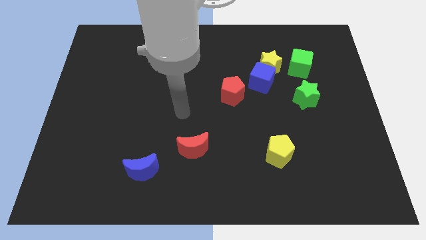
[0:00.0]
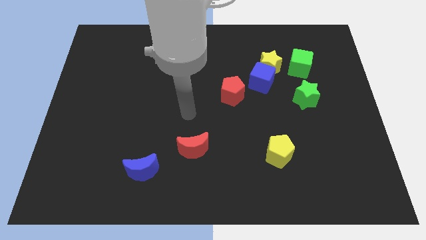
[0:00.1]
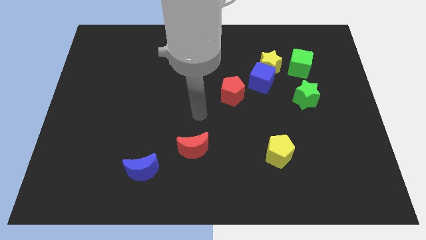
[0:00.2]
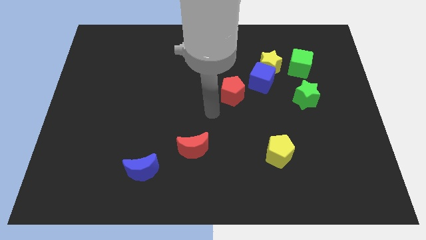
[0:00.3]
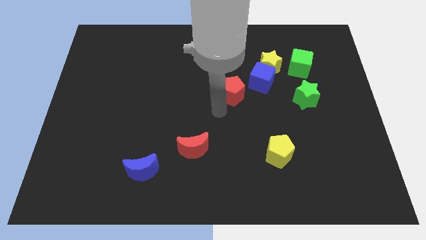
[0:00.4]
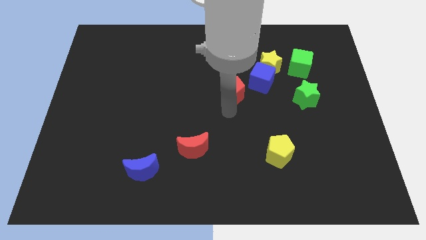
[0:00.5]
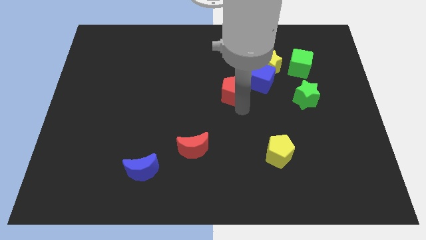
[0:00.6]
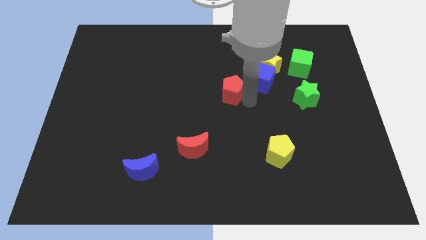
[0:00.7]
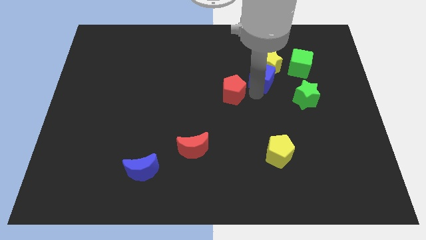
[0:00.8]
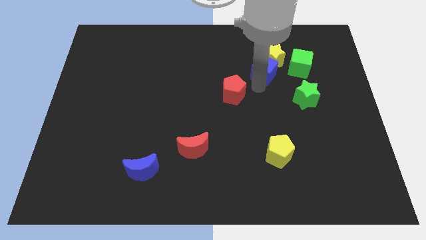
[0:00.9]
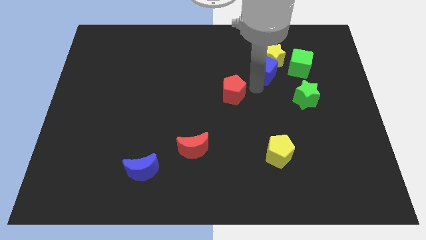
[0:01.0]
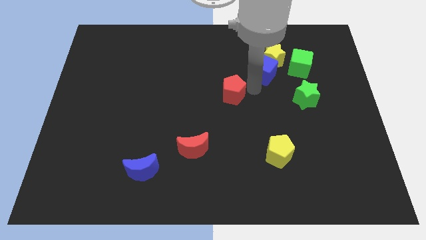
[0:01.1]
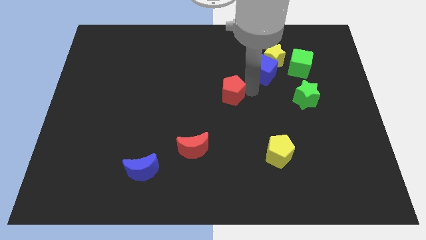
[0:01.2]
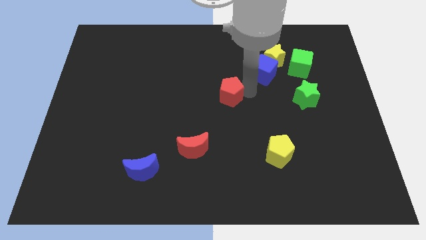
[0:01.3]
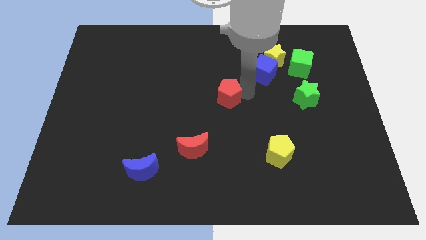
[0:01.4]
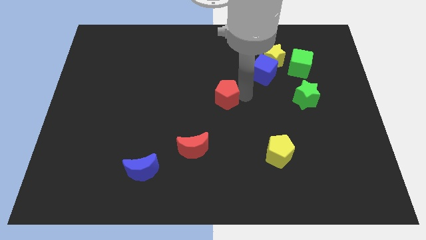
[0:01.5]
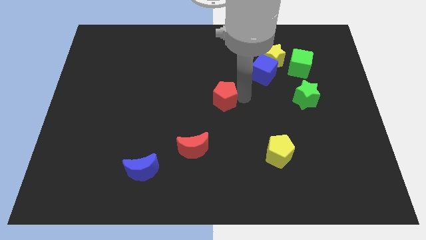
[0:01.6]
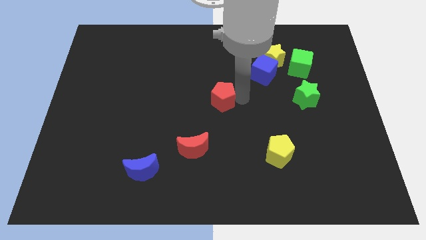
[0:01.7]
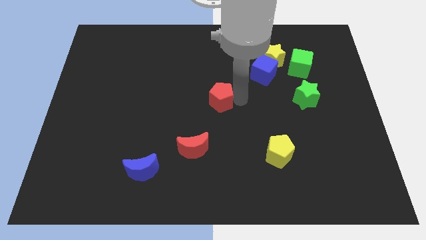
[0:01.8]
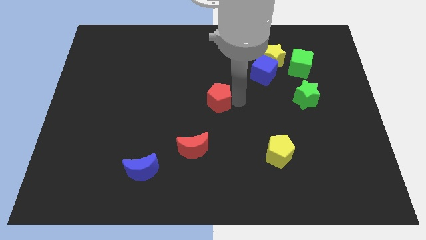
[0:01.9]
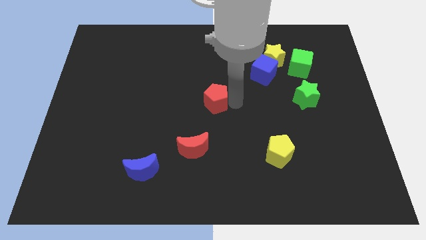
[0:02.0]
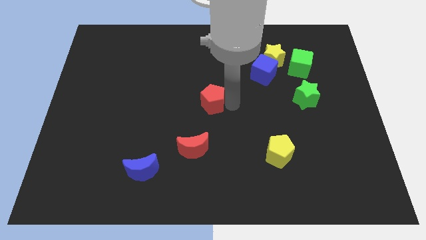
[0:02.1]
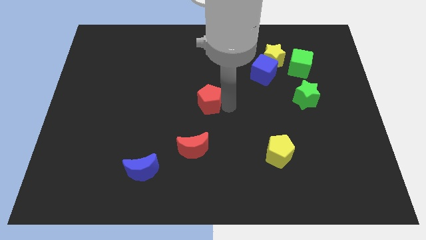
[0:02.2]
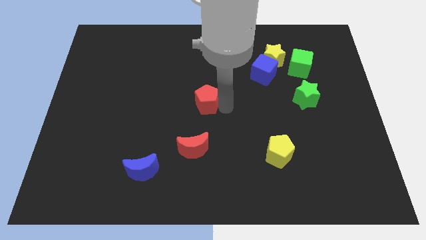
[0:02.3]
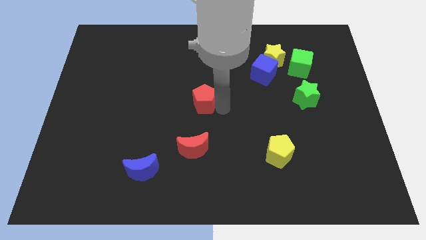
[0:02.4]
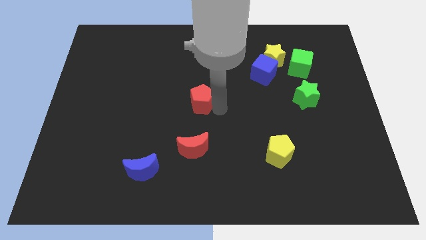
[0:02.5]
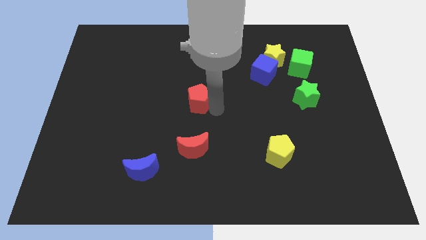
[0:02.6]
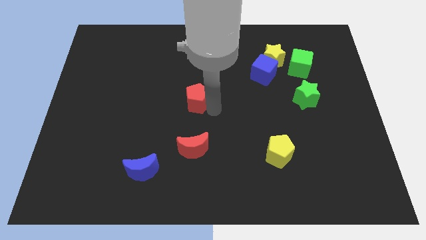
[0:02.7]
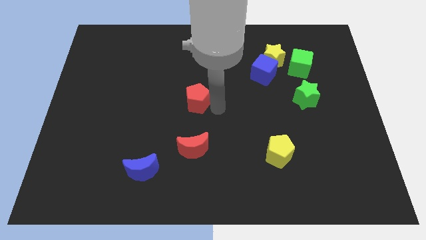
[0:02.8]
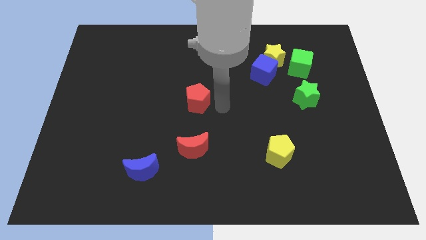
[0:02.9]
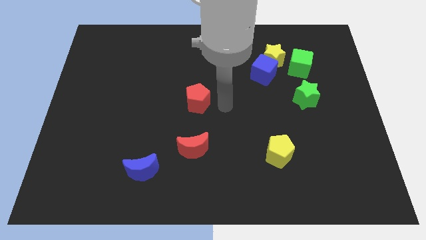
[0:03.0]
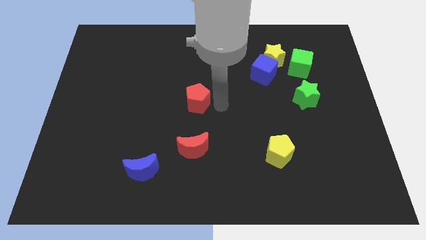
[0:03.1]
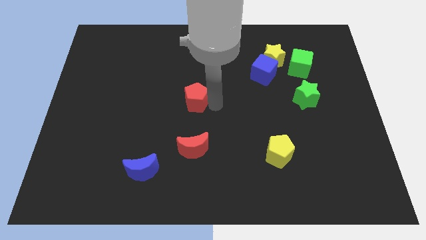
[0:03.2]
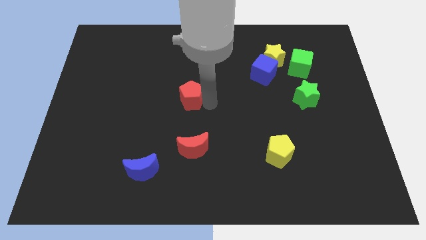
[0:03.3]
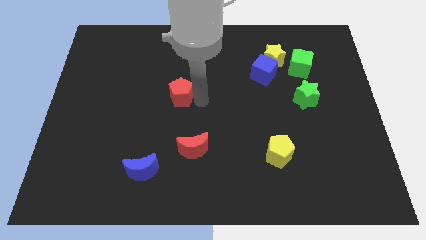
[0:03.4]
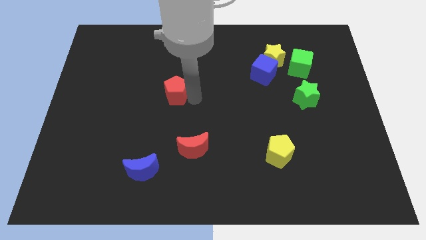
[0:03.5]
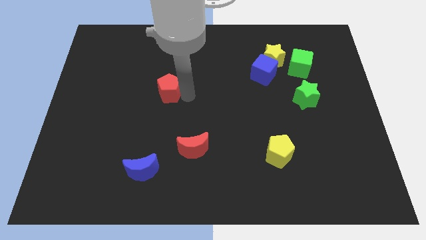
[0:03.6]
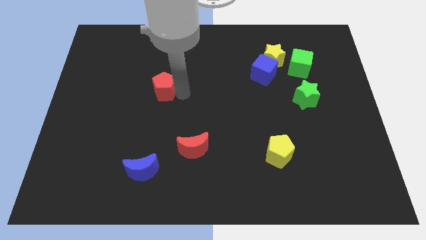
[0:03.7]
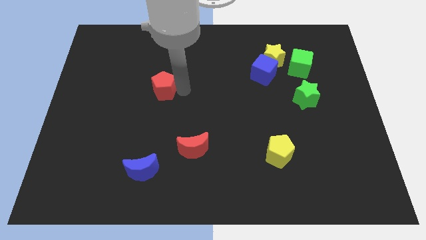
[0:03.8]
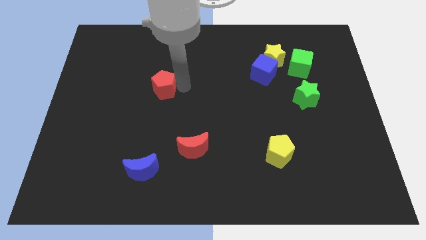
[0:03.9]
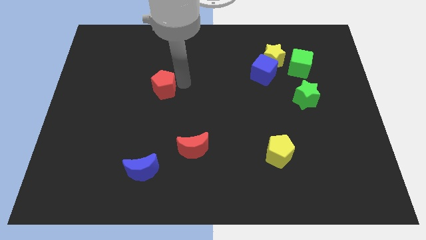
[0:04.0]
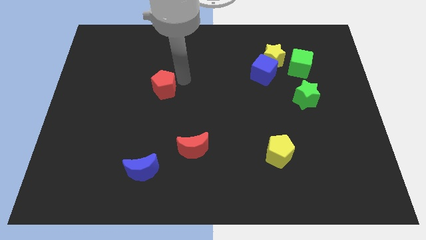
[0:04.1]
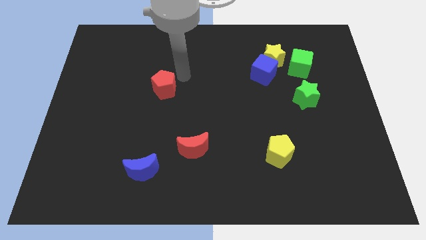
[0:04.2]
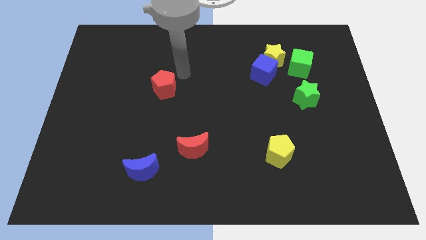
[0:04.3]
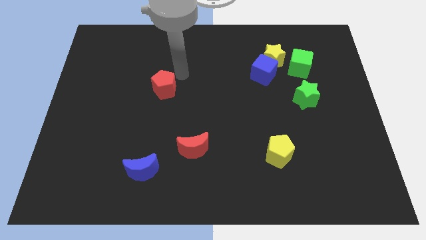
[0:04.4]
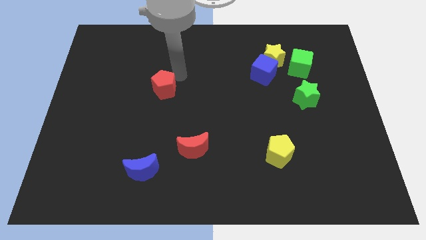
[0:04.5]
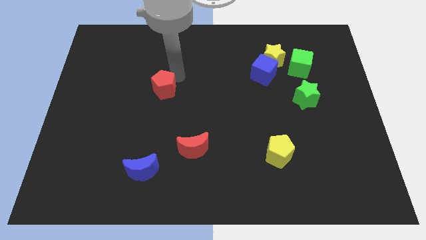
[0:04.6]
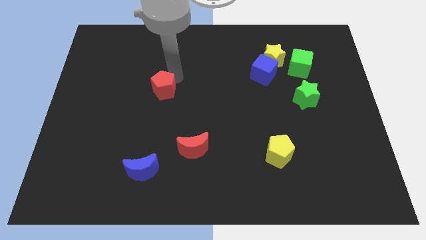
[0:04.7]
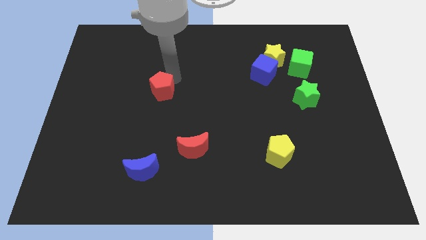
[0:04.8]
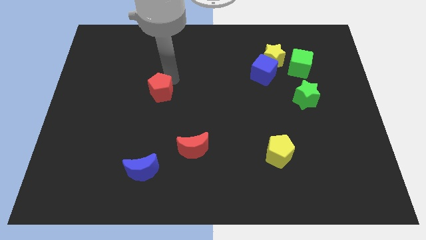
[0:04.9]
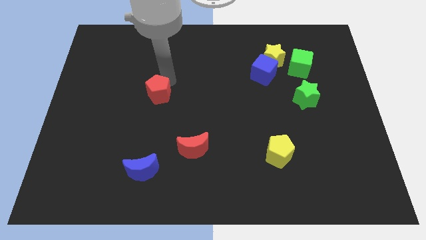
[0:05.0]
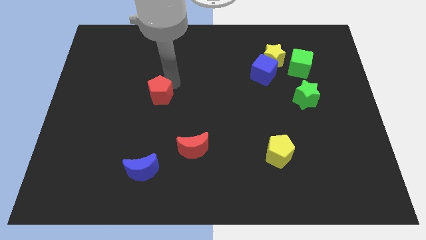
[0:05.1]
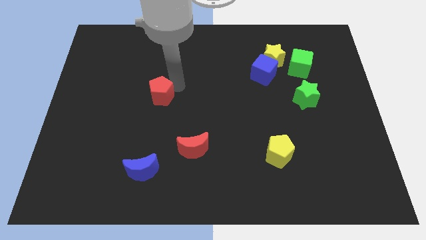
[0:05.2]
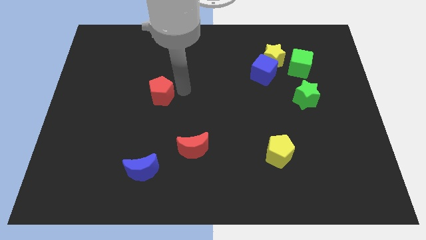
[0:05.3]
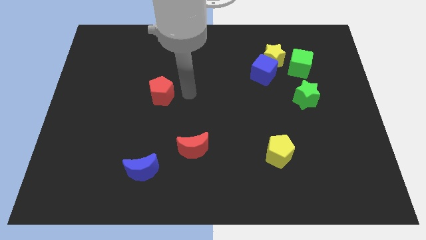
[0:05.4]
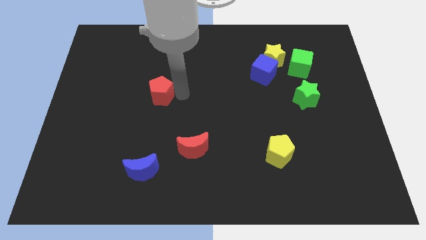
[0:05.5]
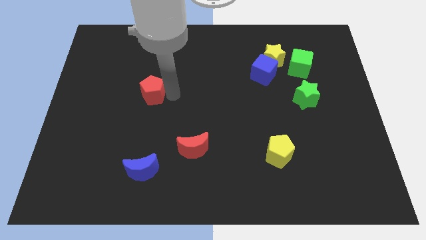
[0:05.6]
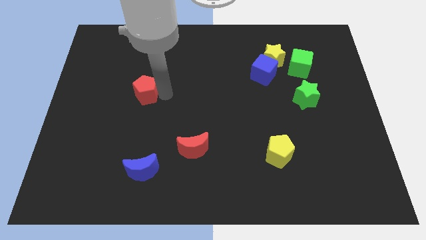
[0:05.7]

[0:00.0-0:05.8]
move the red pentagon to the left

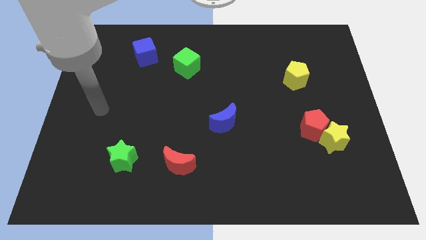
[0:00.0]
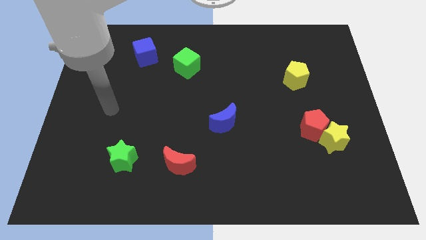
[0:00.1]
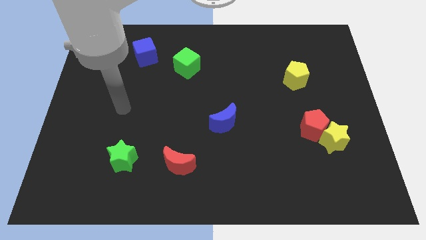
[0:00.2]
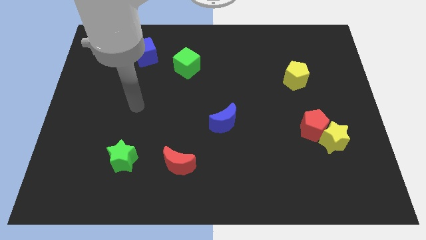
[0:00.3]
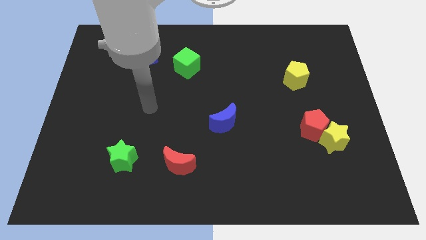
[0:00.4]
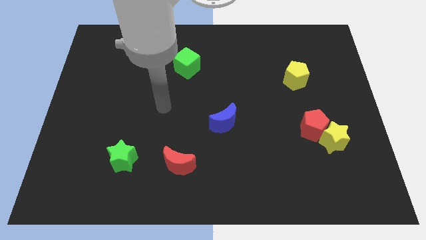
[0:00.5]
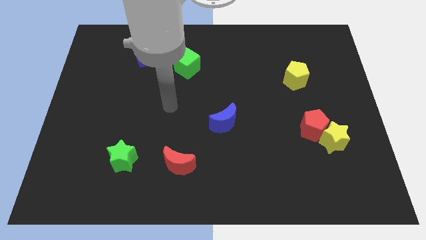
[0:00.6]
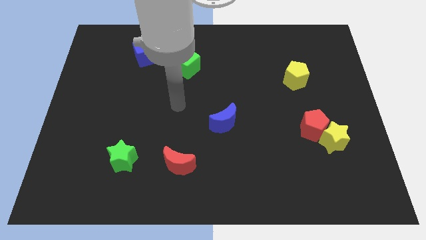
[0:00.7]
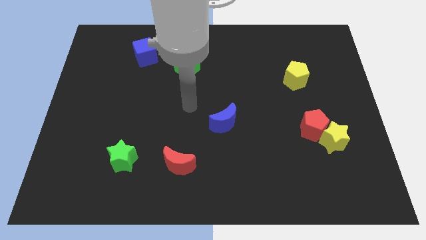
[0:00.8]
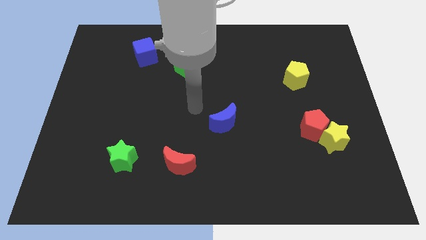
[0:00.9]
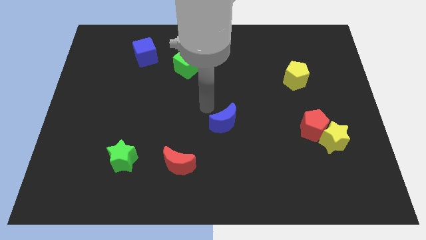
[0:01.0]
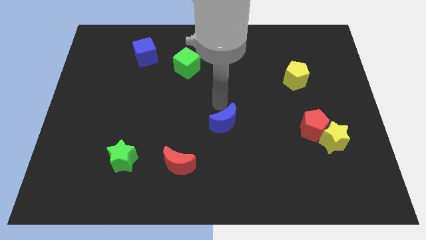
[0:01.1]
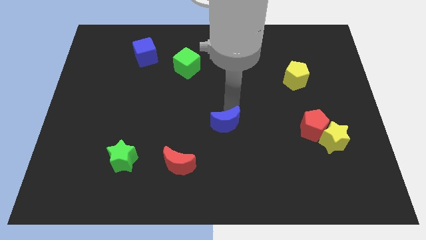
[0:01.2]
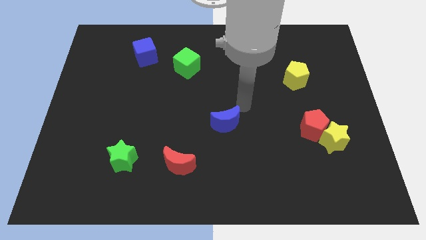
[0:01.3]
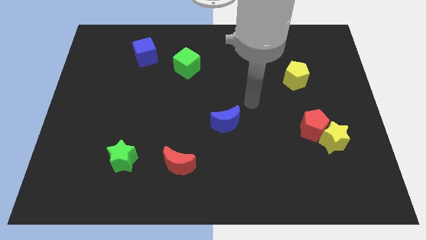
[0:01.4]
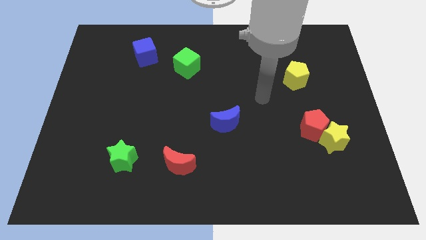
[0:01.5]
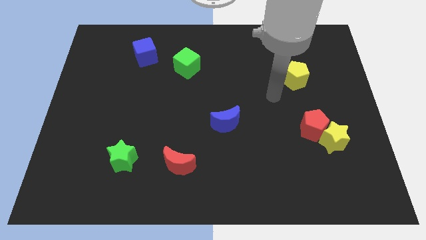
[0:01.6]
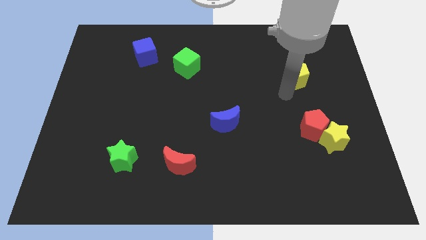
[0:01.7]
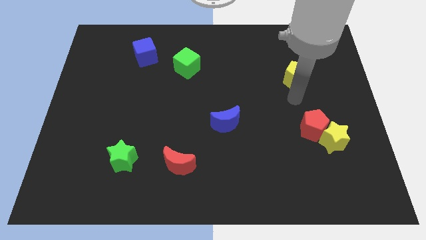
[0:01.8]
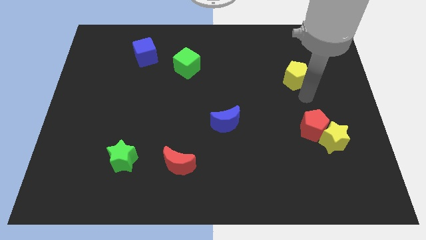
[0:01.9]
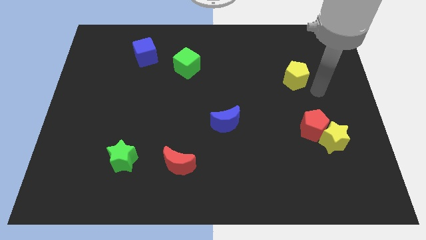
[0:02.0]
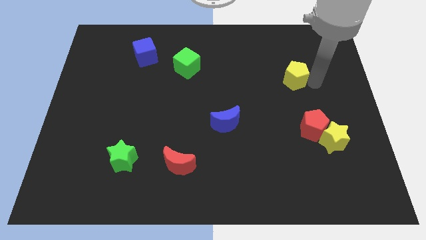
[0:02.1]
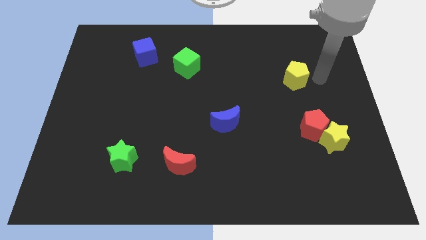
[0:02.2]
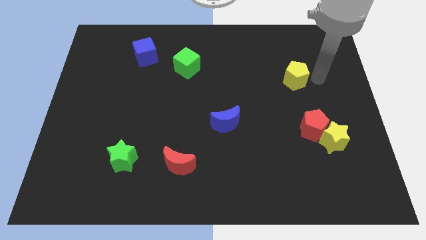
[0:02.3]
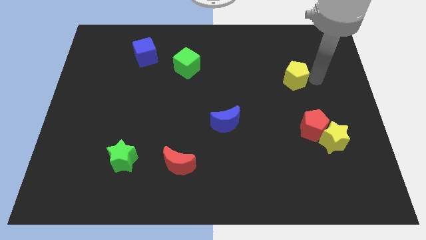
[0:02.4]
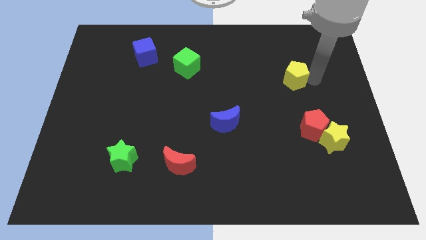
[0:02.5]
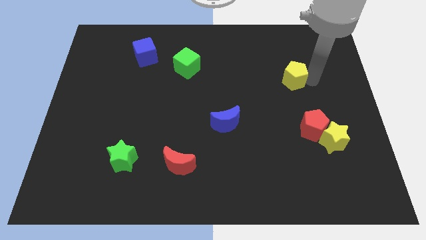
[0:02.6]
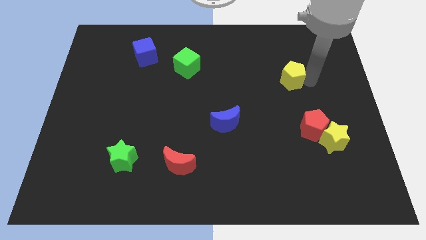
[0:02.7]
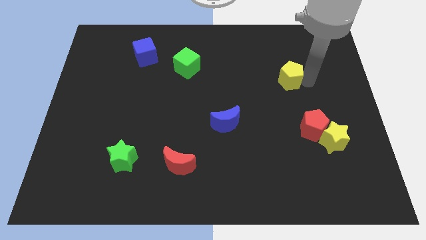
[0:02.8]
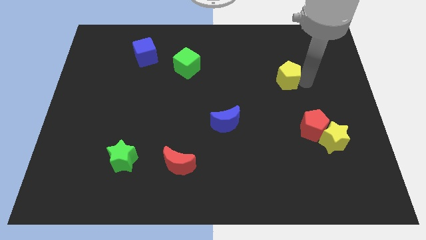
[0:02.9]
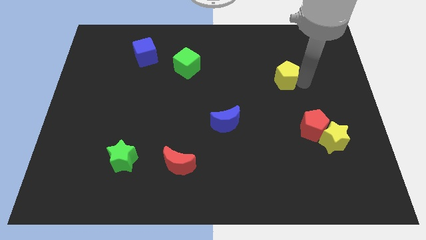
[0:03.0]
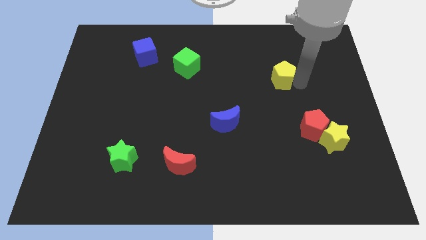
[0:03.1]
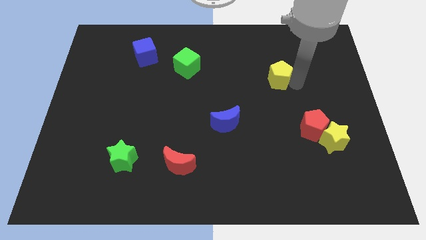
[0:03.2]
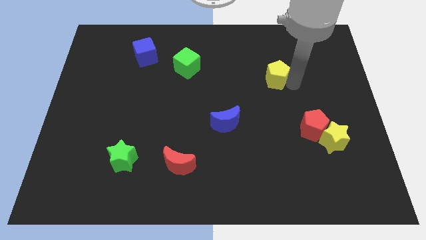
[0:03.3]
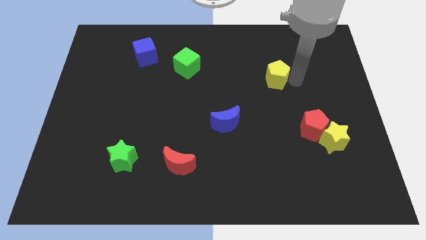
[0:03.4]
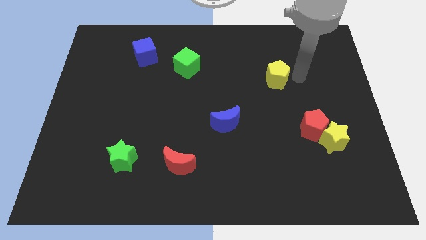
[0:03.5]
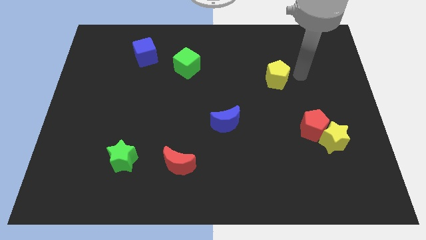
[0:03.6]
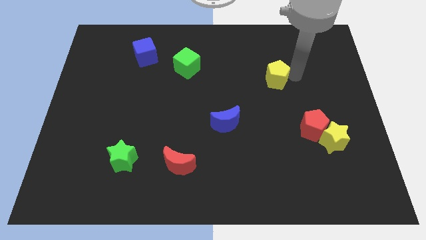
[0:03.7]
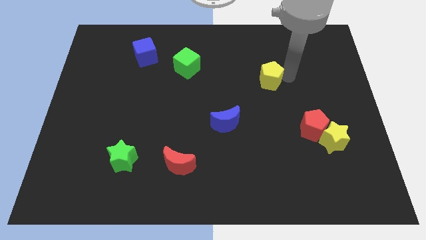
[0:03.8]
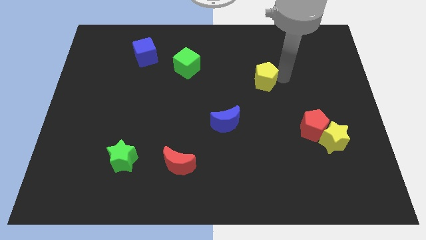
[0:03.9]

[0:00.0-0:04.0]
slightly move the yellow pentagon to the left
